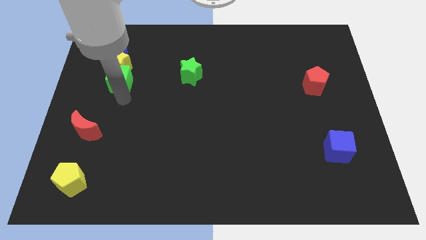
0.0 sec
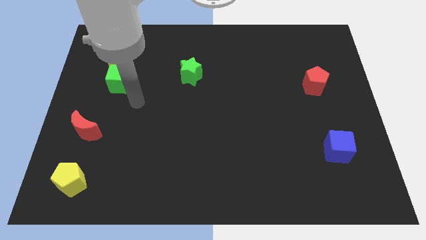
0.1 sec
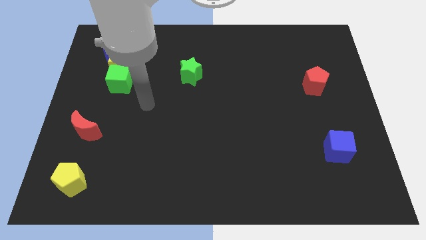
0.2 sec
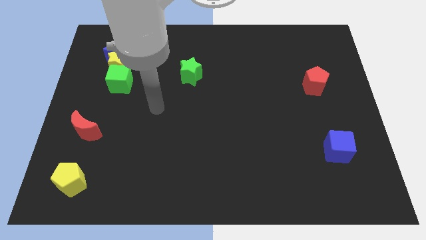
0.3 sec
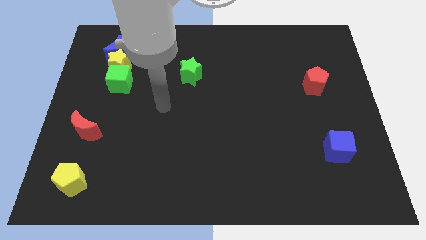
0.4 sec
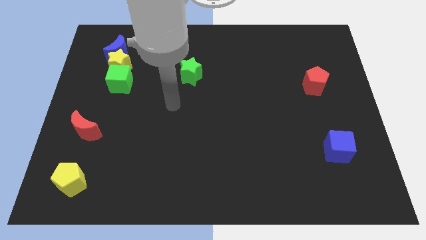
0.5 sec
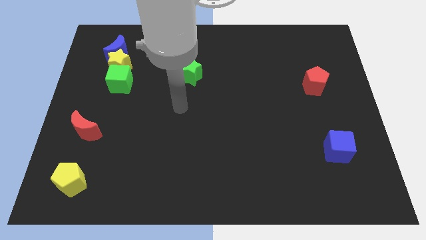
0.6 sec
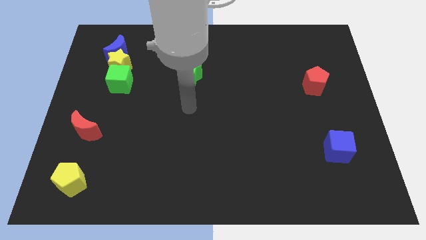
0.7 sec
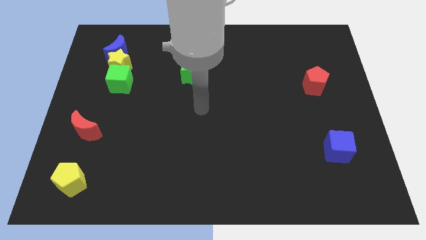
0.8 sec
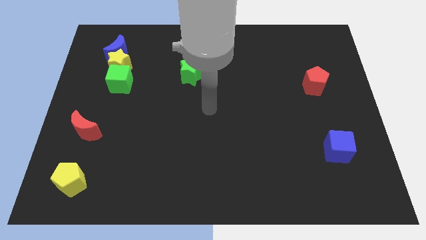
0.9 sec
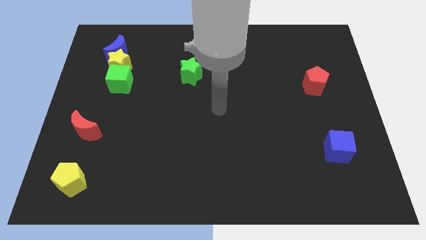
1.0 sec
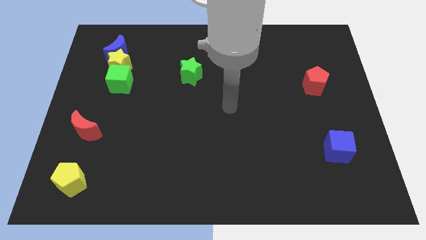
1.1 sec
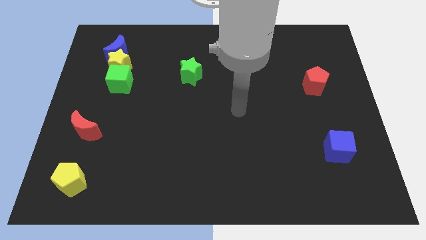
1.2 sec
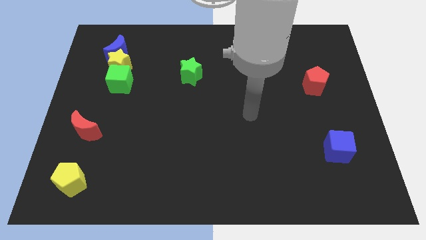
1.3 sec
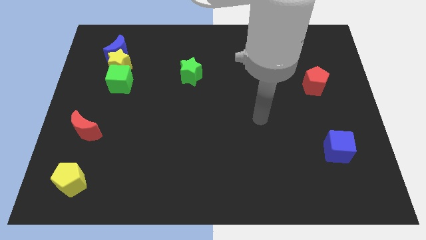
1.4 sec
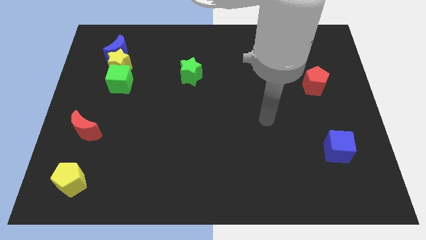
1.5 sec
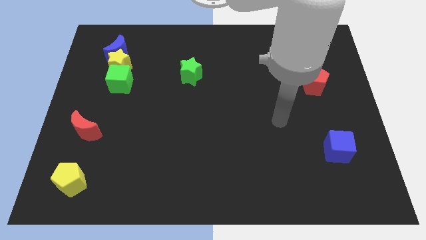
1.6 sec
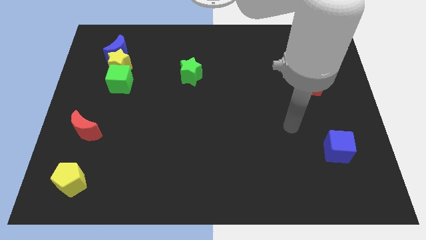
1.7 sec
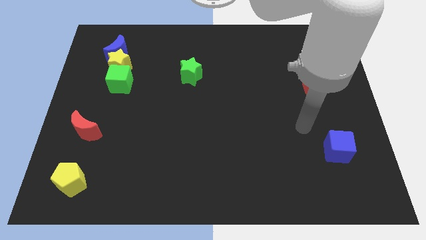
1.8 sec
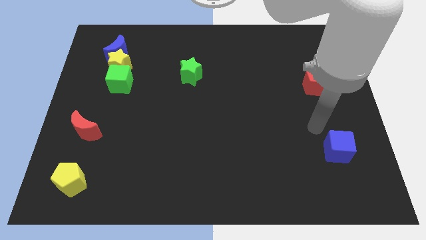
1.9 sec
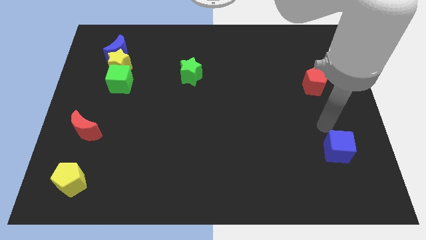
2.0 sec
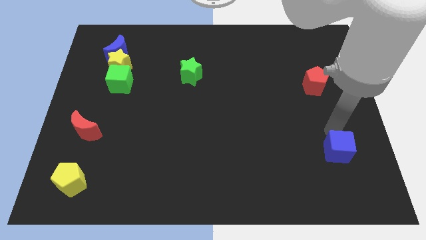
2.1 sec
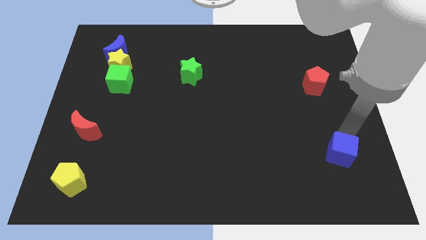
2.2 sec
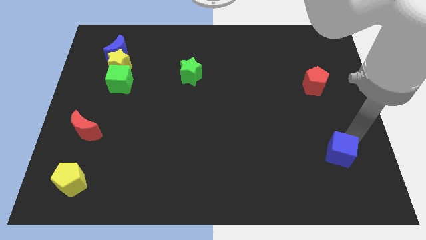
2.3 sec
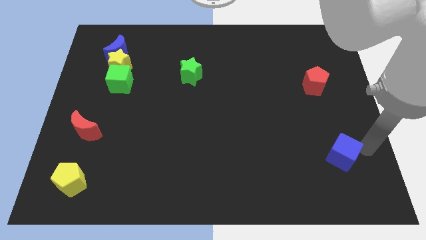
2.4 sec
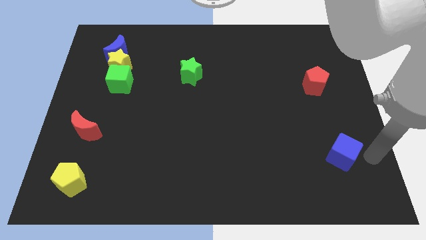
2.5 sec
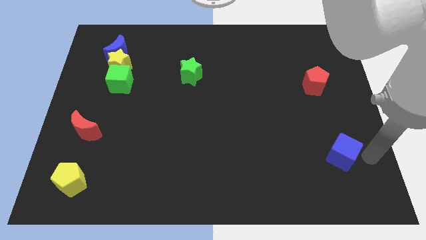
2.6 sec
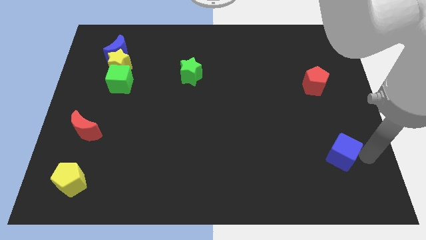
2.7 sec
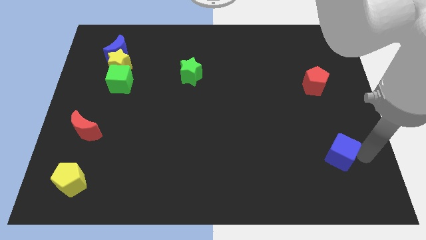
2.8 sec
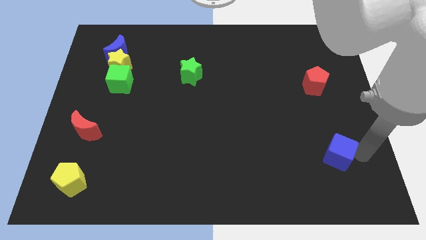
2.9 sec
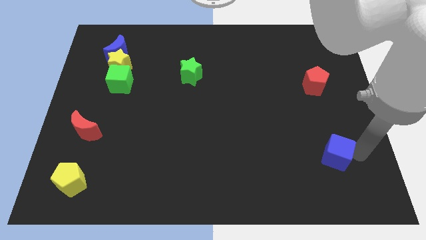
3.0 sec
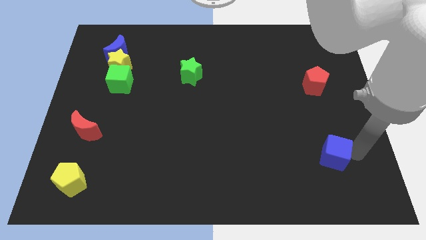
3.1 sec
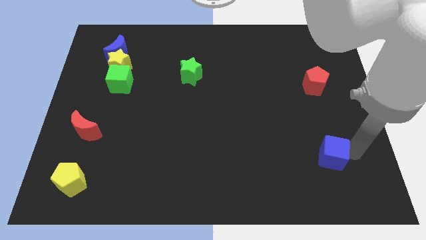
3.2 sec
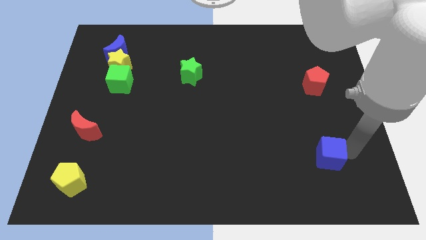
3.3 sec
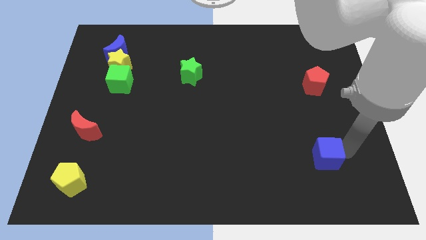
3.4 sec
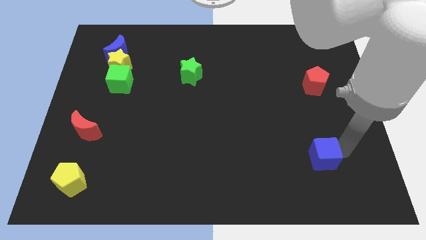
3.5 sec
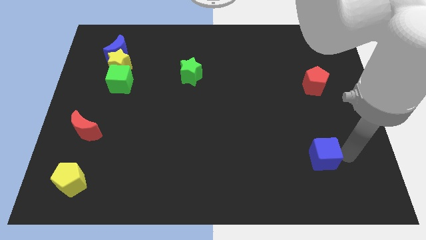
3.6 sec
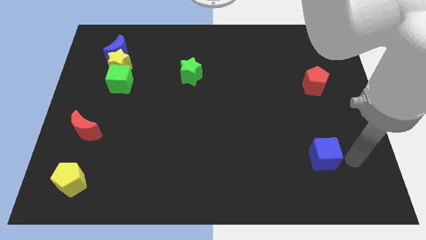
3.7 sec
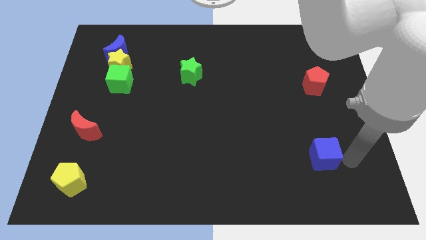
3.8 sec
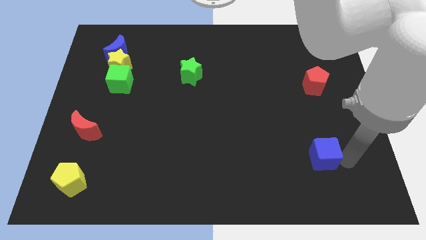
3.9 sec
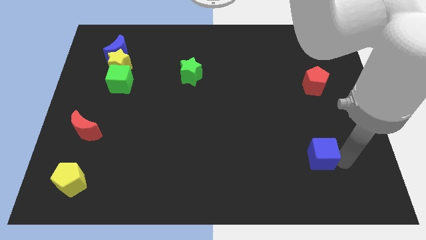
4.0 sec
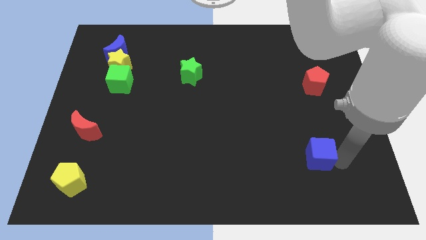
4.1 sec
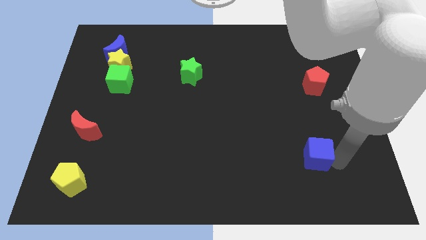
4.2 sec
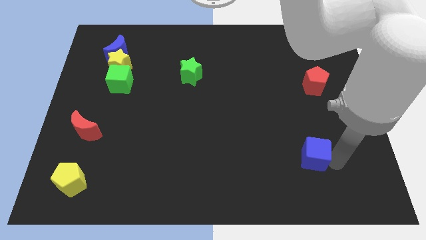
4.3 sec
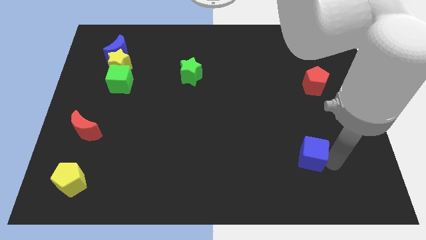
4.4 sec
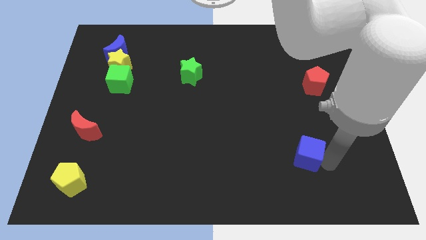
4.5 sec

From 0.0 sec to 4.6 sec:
slide the blue cube to the left a little

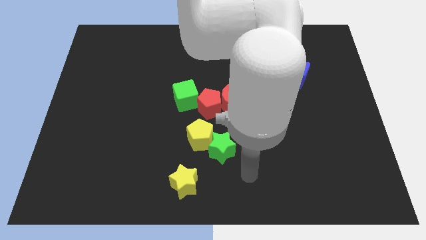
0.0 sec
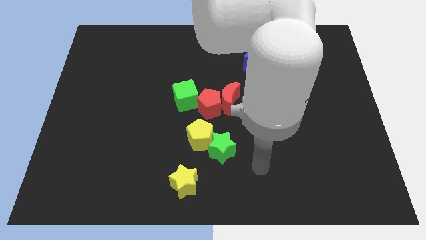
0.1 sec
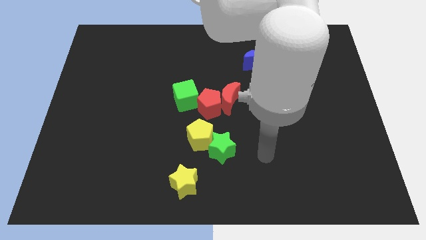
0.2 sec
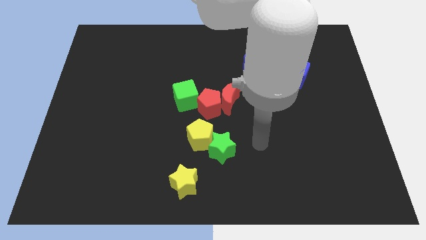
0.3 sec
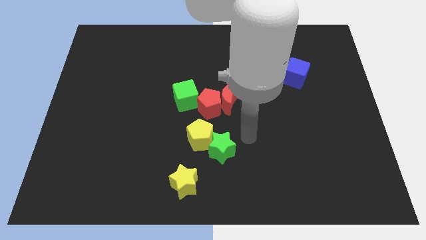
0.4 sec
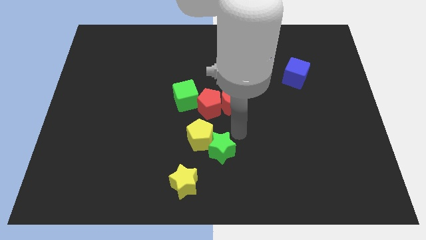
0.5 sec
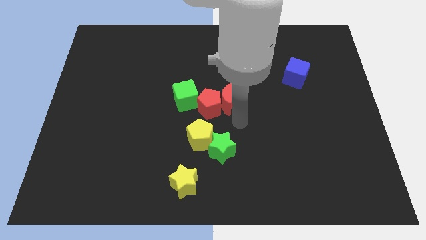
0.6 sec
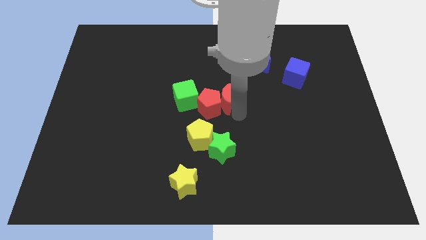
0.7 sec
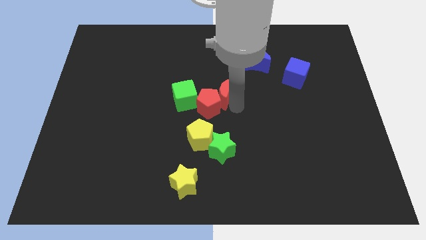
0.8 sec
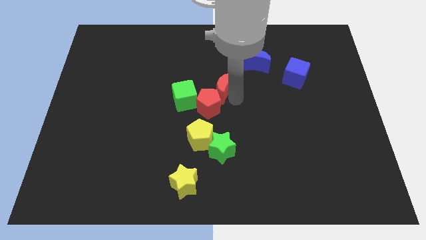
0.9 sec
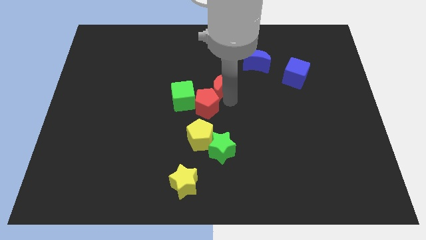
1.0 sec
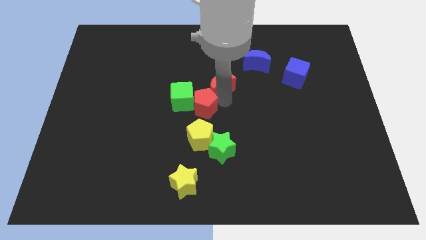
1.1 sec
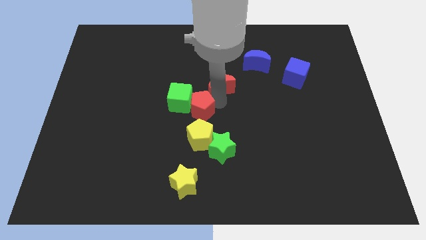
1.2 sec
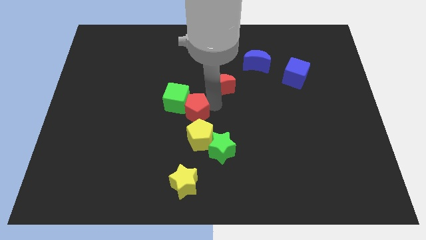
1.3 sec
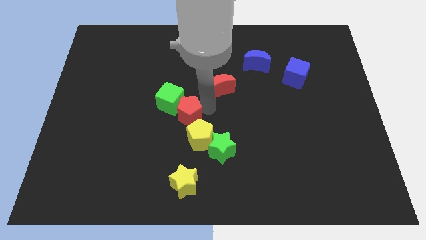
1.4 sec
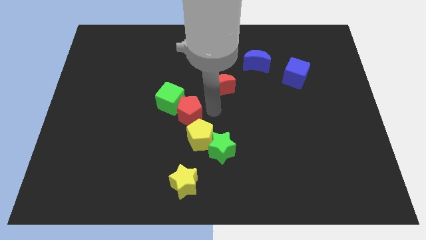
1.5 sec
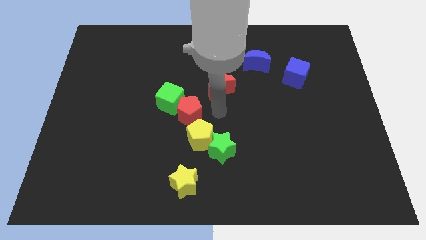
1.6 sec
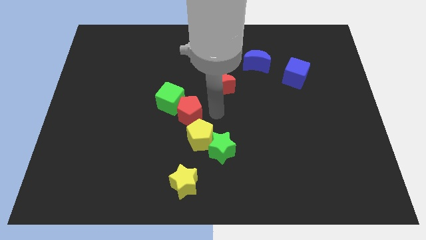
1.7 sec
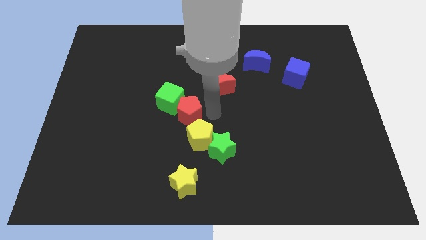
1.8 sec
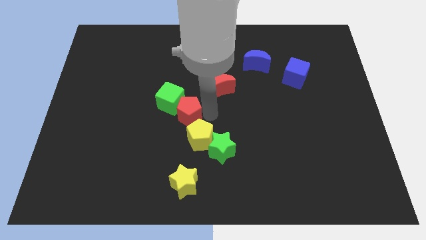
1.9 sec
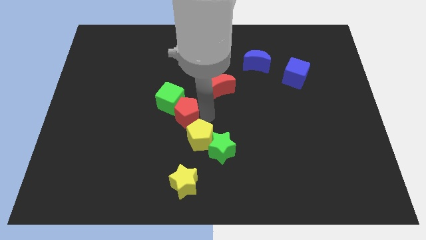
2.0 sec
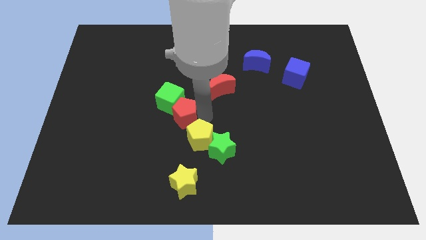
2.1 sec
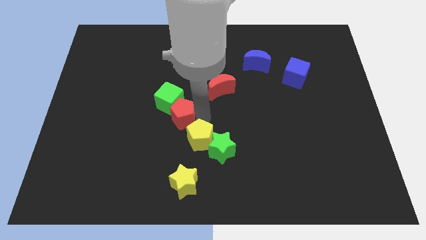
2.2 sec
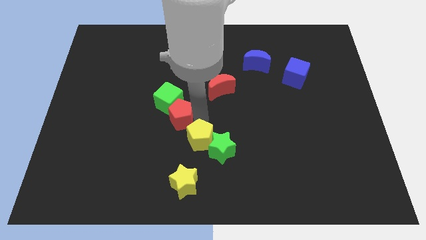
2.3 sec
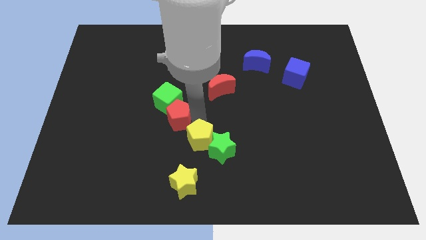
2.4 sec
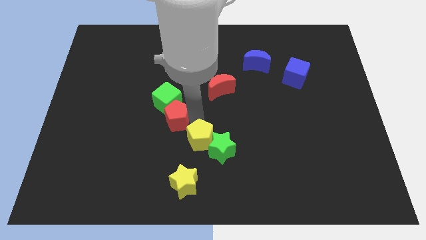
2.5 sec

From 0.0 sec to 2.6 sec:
move the red pentagon a little bit left

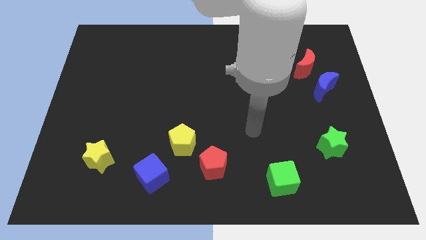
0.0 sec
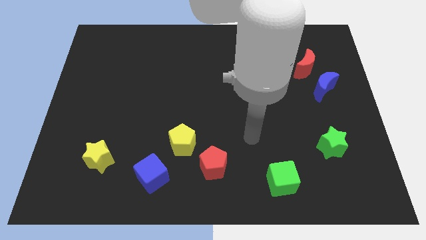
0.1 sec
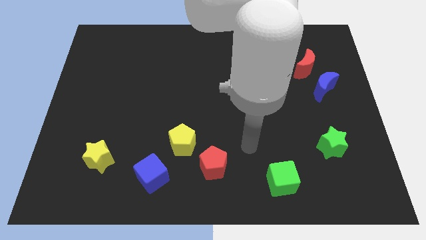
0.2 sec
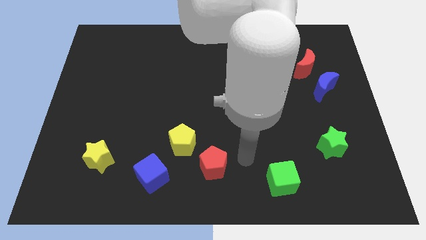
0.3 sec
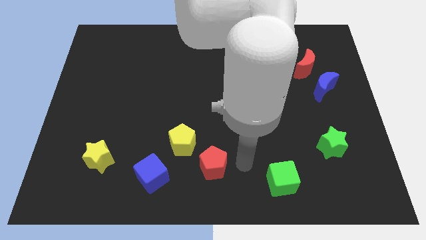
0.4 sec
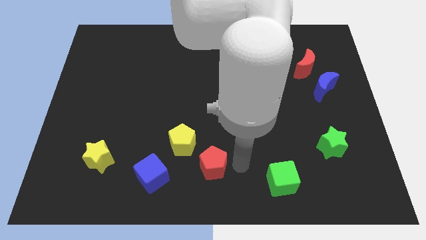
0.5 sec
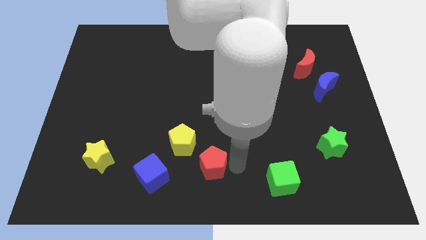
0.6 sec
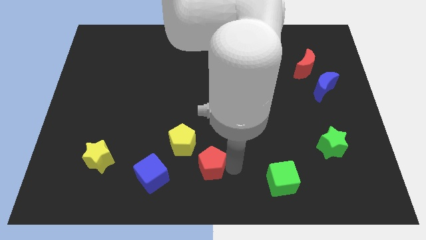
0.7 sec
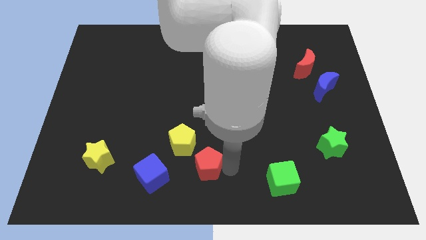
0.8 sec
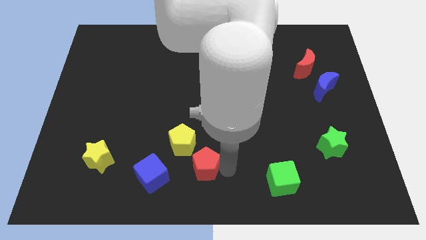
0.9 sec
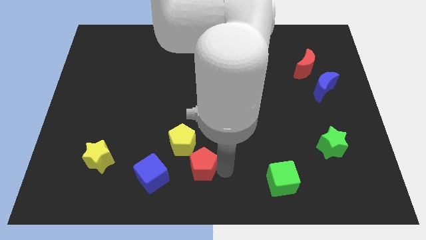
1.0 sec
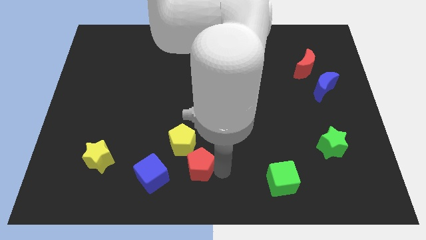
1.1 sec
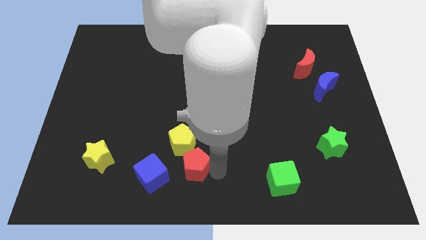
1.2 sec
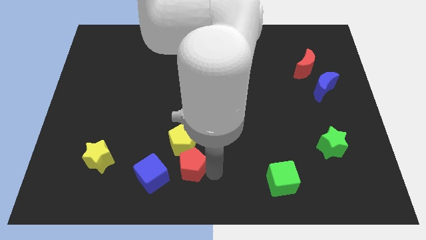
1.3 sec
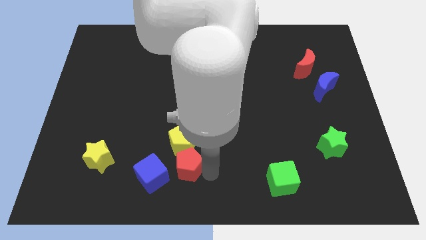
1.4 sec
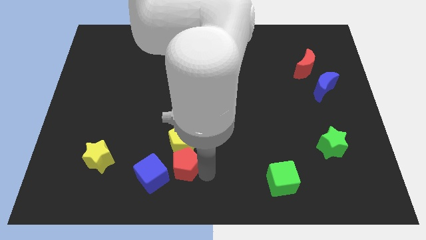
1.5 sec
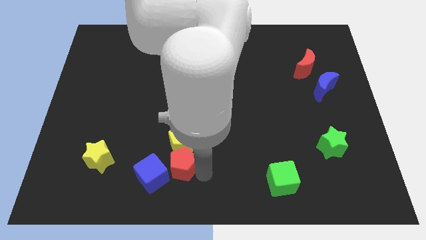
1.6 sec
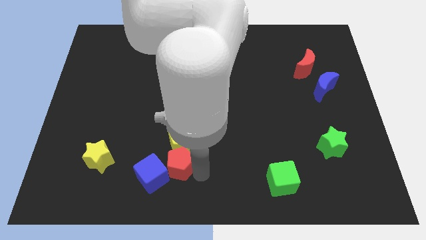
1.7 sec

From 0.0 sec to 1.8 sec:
slightly push the red pentagon to the left
